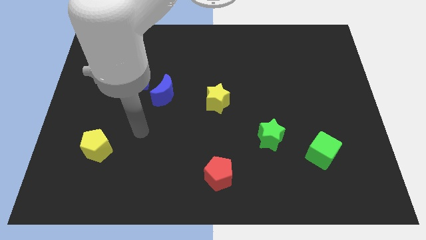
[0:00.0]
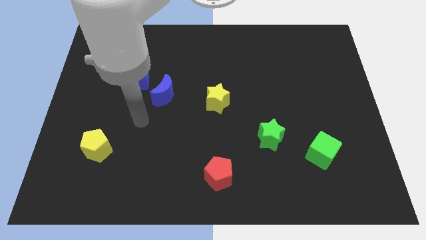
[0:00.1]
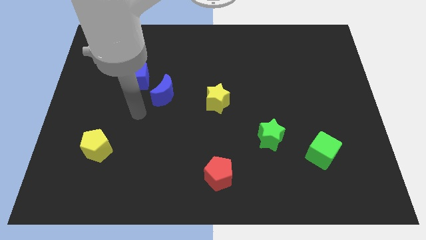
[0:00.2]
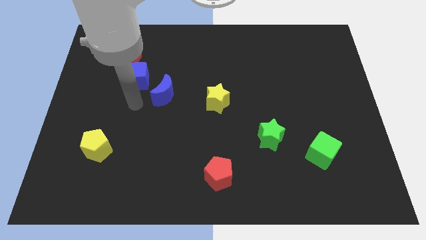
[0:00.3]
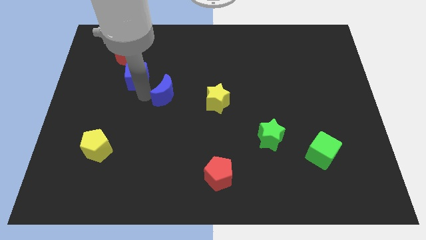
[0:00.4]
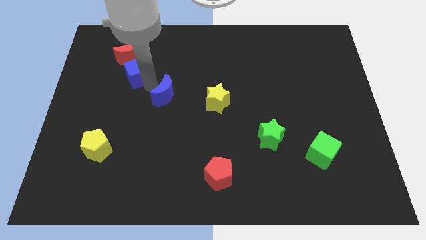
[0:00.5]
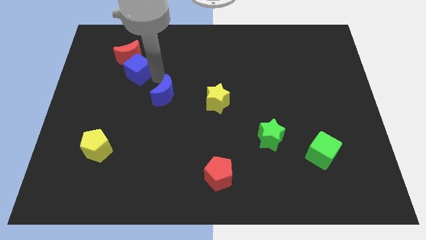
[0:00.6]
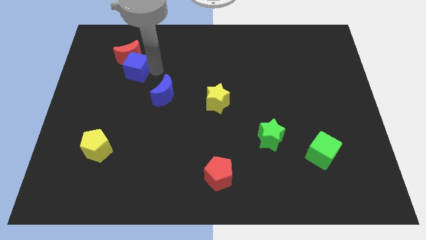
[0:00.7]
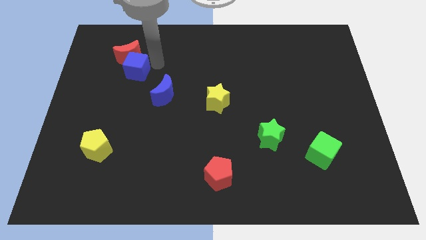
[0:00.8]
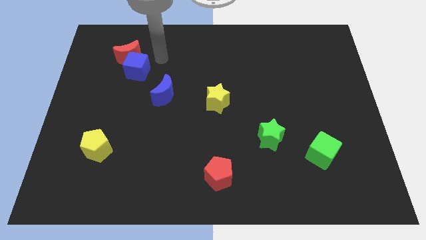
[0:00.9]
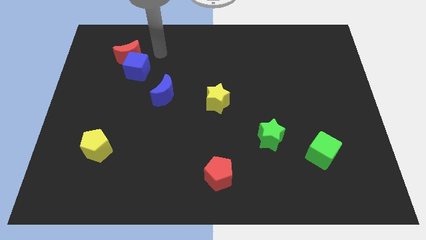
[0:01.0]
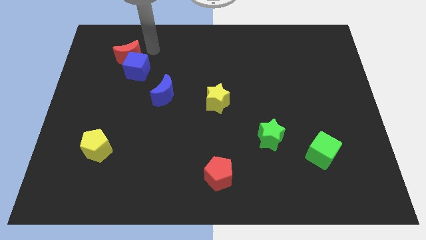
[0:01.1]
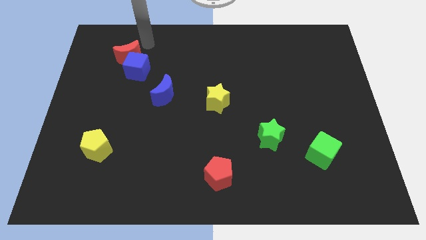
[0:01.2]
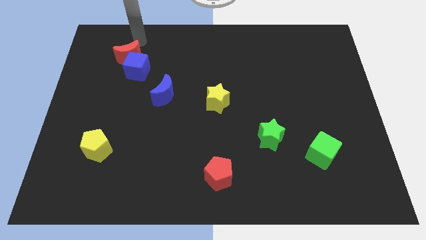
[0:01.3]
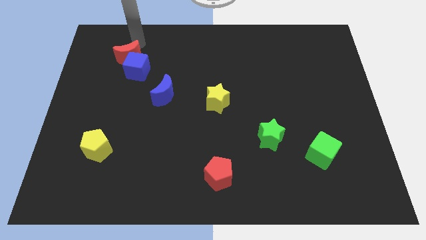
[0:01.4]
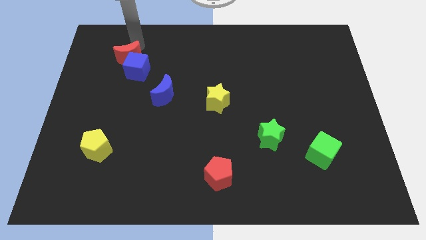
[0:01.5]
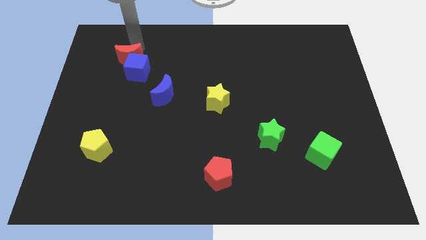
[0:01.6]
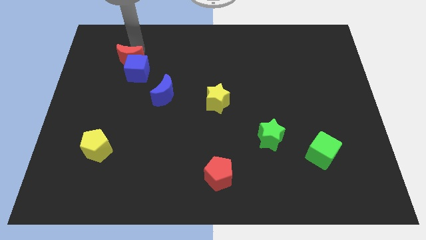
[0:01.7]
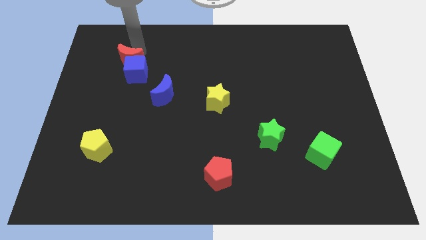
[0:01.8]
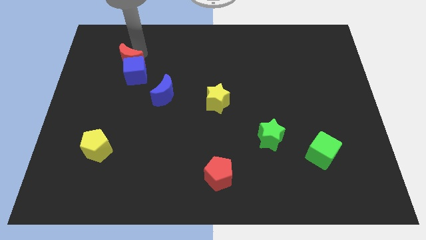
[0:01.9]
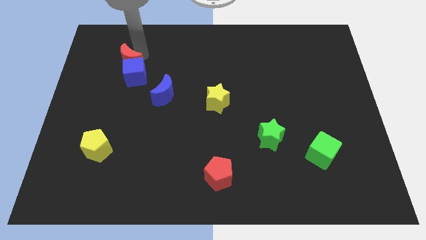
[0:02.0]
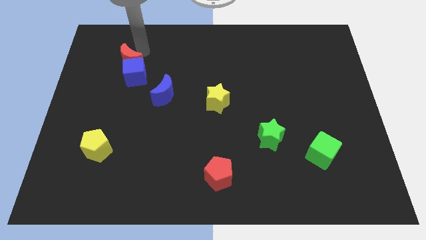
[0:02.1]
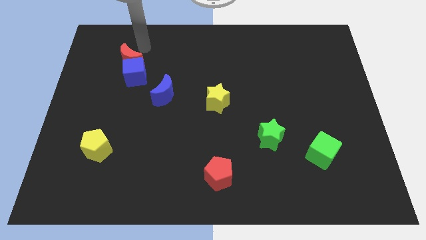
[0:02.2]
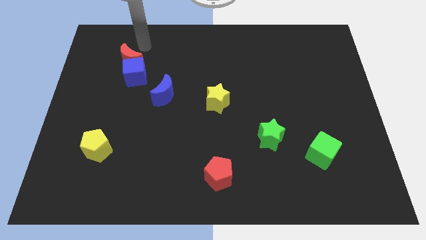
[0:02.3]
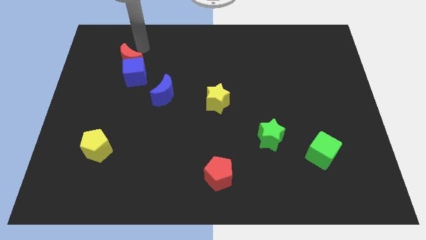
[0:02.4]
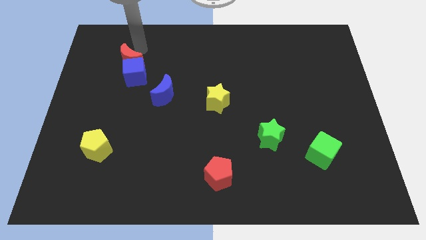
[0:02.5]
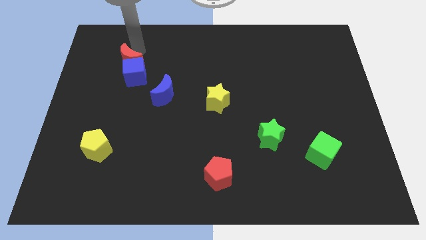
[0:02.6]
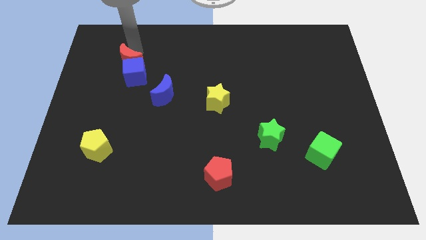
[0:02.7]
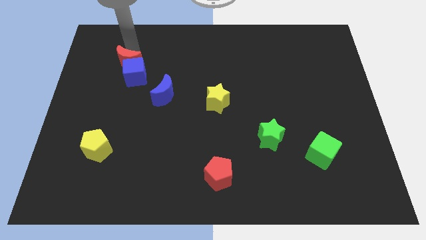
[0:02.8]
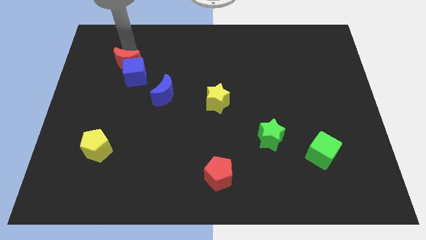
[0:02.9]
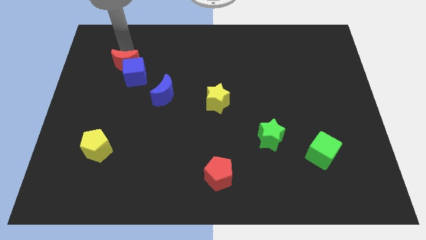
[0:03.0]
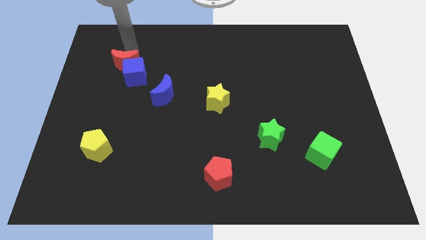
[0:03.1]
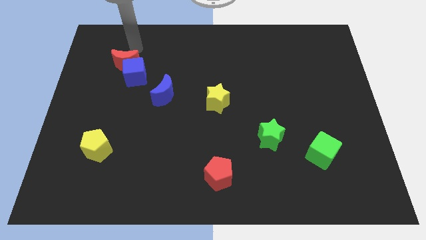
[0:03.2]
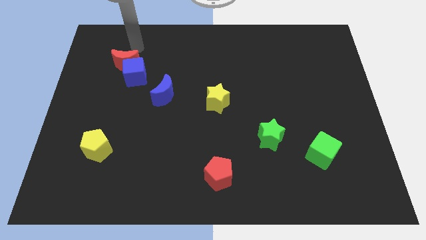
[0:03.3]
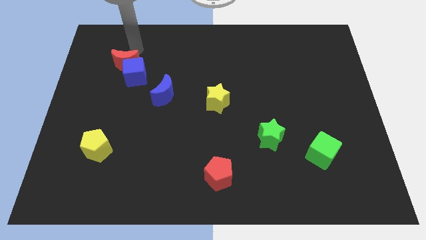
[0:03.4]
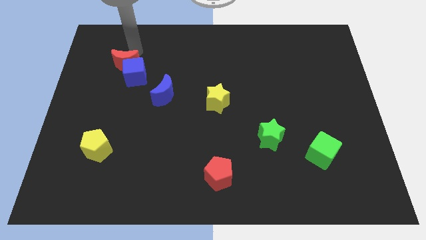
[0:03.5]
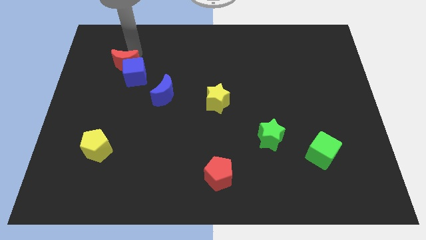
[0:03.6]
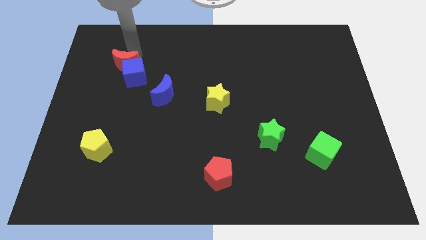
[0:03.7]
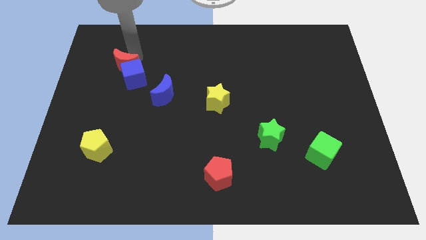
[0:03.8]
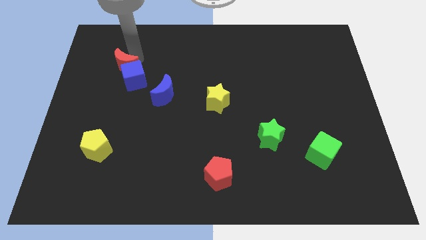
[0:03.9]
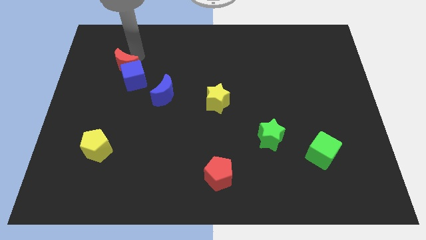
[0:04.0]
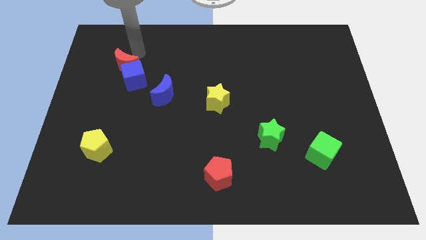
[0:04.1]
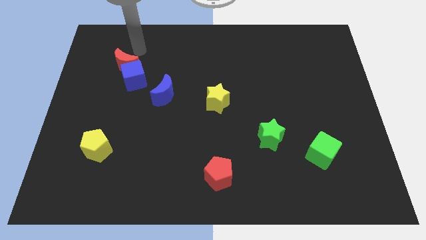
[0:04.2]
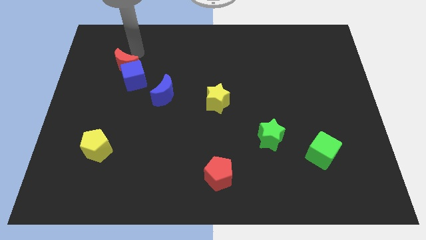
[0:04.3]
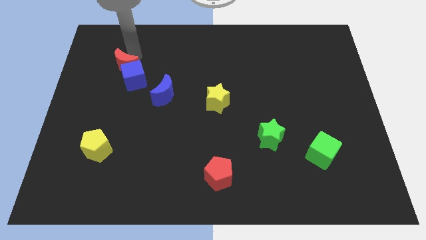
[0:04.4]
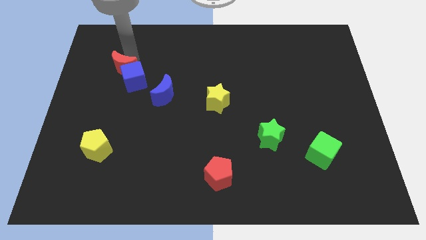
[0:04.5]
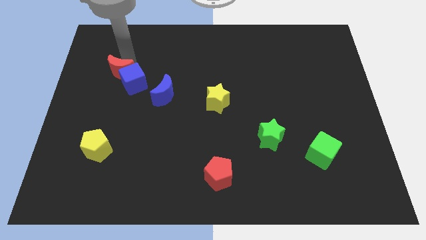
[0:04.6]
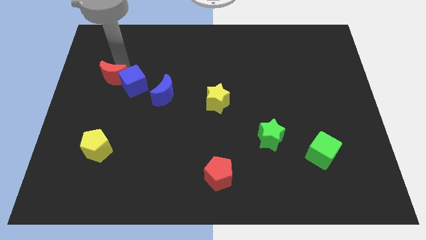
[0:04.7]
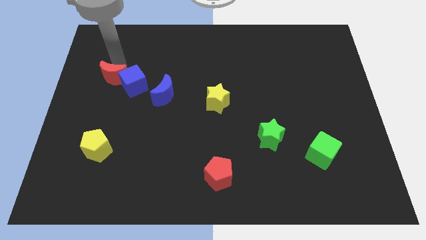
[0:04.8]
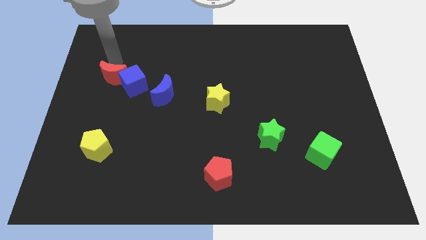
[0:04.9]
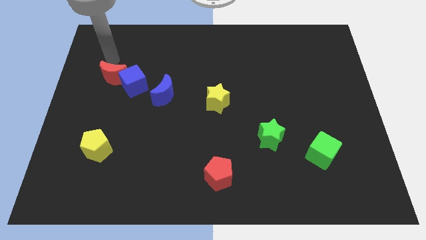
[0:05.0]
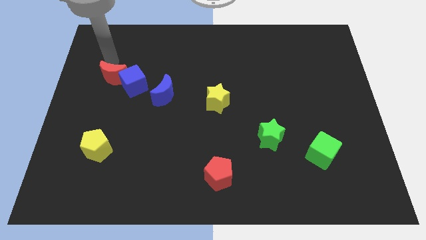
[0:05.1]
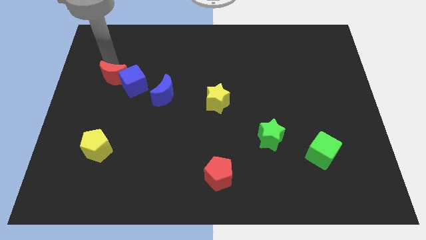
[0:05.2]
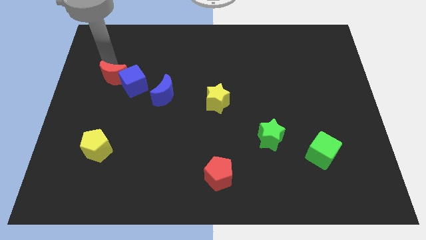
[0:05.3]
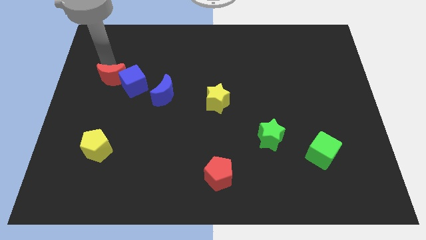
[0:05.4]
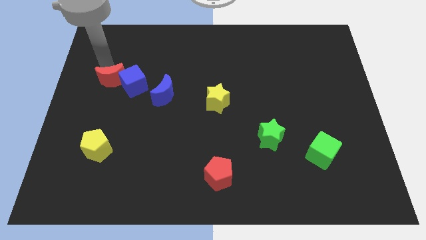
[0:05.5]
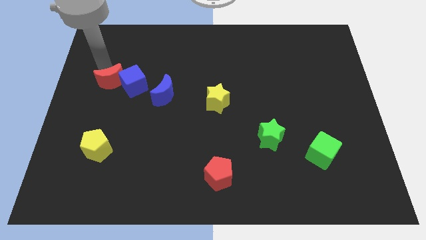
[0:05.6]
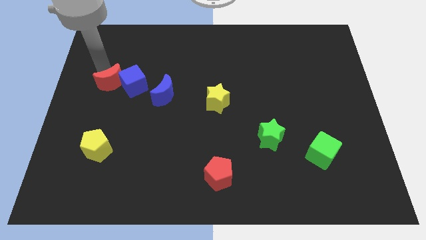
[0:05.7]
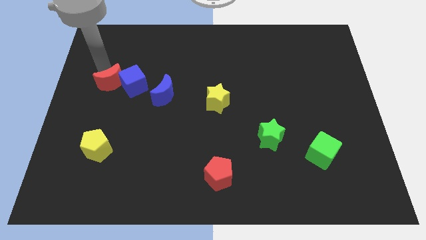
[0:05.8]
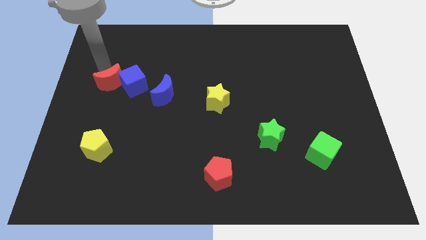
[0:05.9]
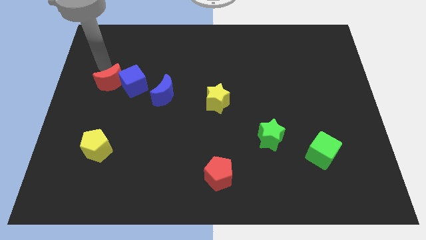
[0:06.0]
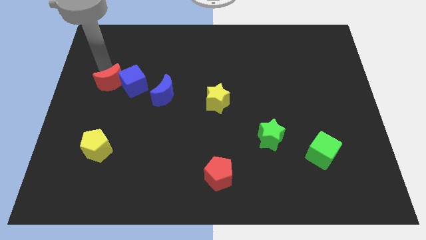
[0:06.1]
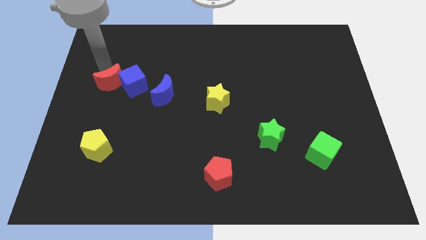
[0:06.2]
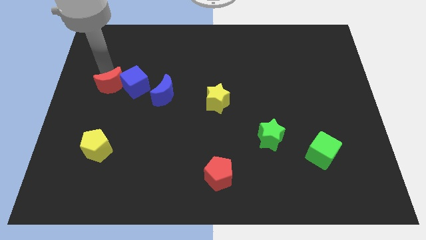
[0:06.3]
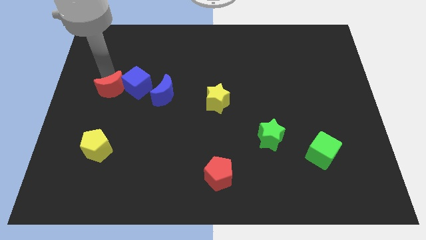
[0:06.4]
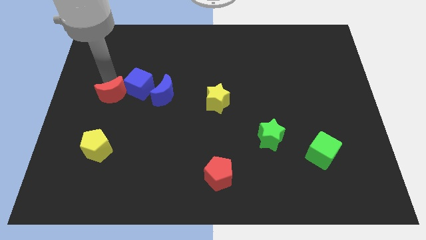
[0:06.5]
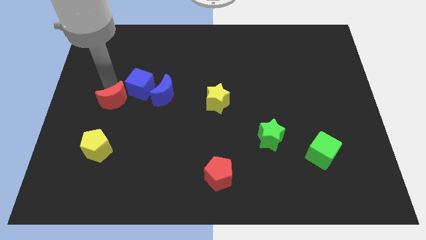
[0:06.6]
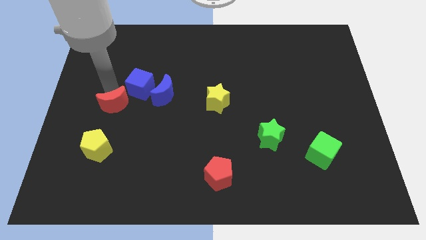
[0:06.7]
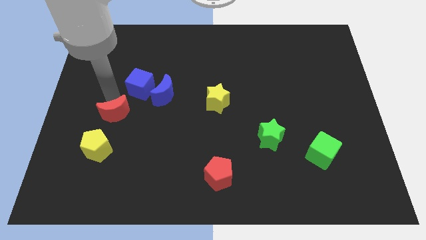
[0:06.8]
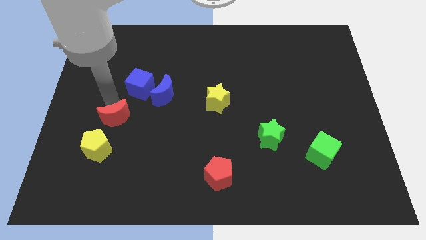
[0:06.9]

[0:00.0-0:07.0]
slide the red moon to the top right of the yellow pentagon
